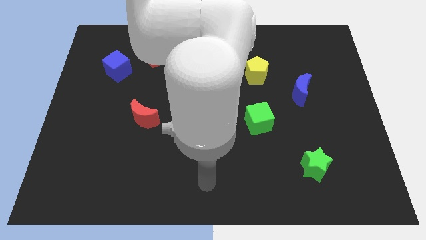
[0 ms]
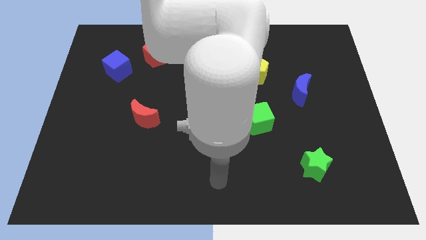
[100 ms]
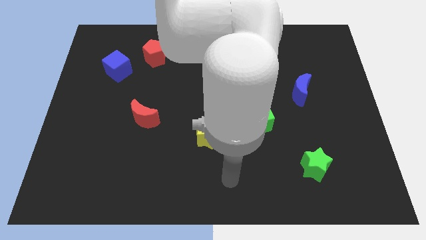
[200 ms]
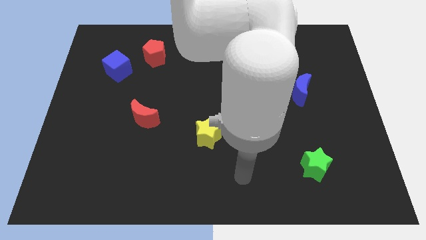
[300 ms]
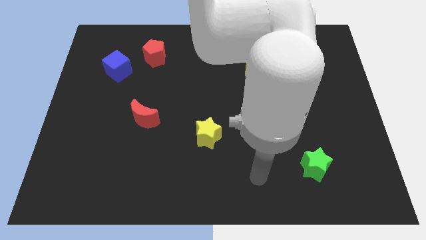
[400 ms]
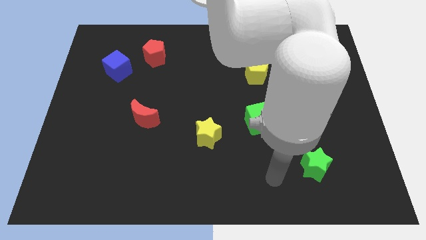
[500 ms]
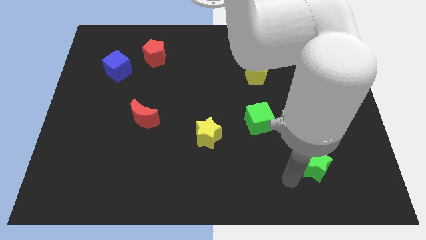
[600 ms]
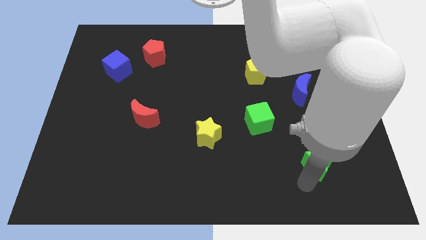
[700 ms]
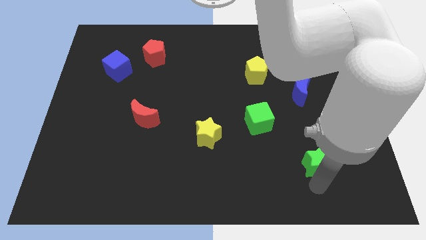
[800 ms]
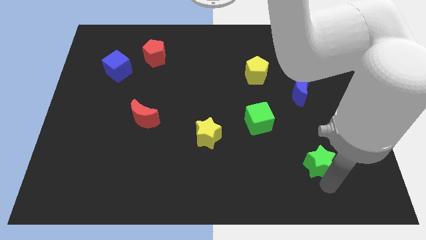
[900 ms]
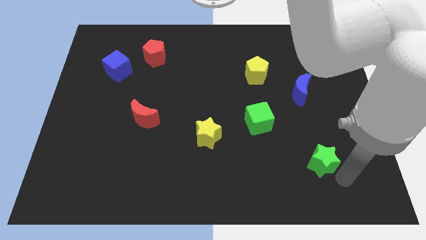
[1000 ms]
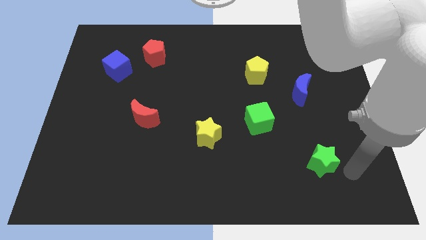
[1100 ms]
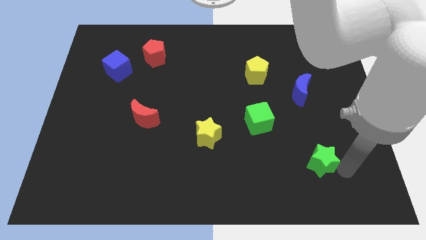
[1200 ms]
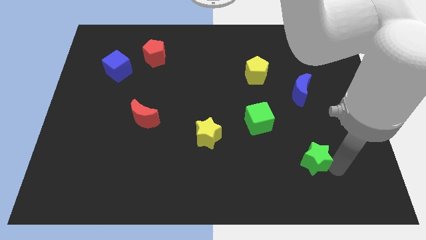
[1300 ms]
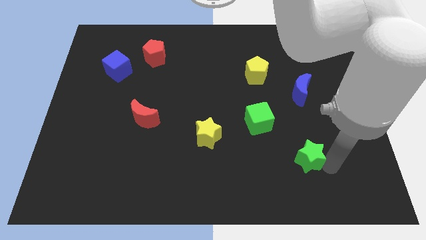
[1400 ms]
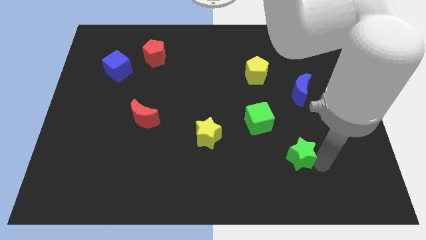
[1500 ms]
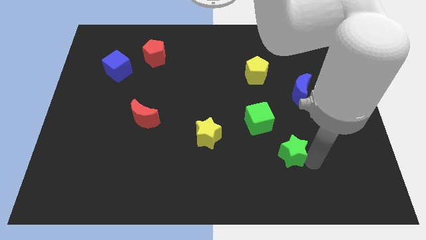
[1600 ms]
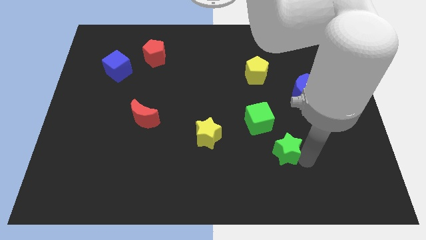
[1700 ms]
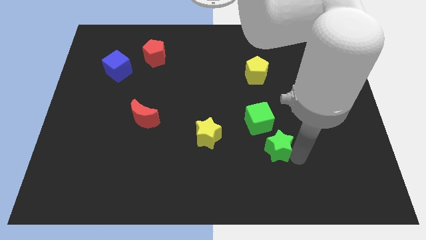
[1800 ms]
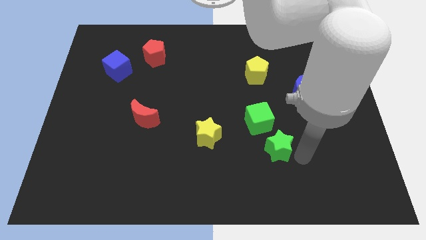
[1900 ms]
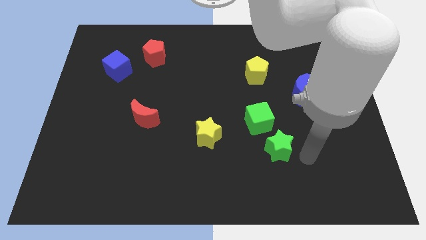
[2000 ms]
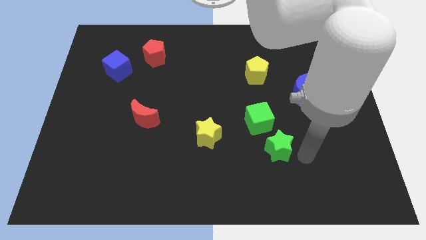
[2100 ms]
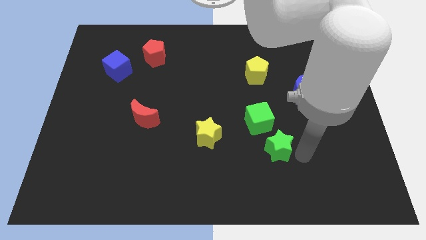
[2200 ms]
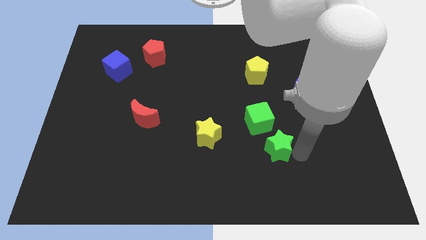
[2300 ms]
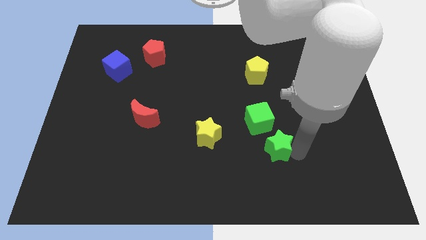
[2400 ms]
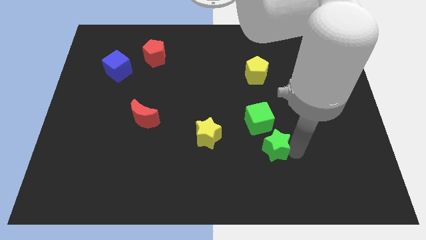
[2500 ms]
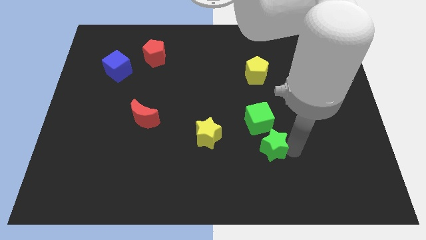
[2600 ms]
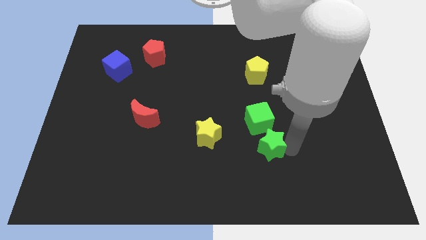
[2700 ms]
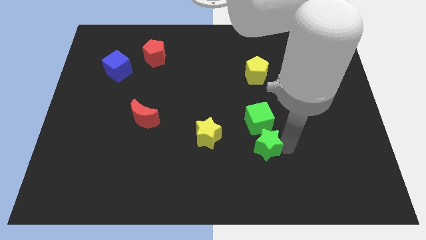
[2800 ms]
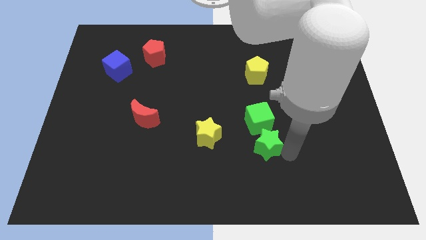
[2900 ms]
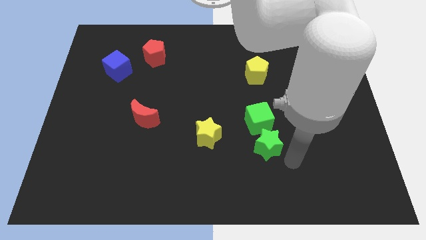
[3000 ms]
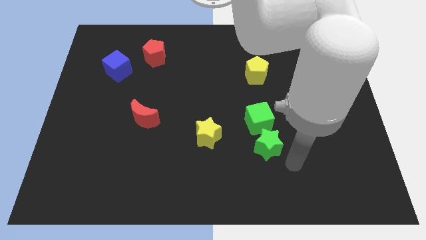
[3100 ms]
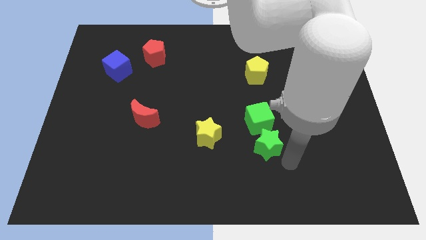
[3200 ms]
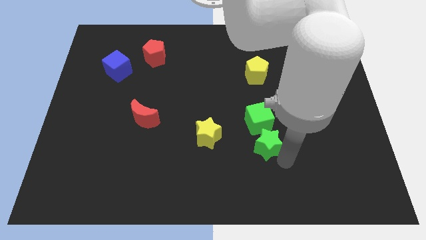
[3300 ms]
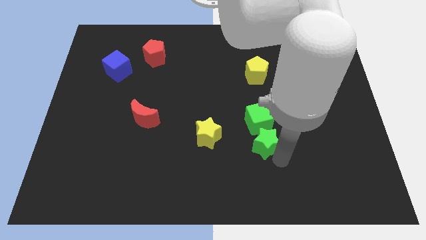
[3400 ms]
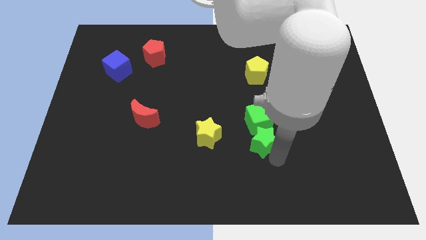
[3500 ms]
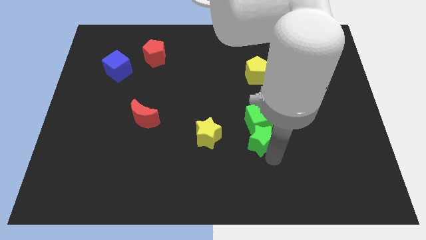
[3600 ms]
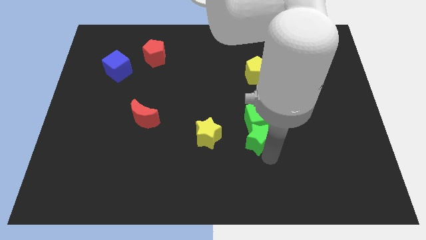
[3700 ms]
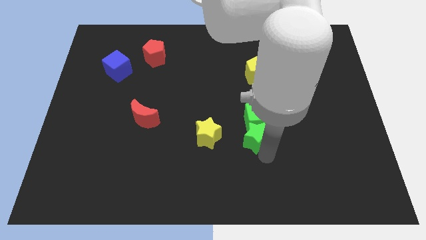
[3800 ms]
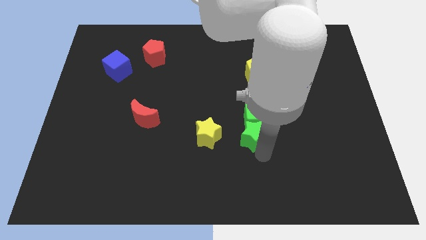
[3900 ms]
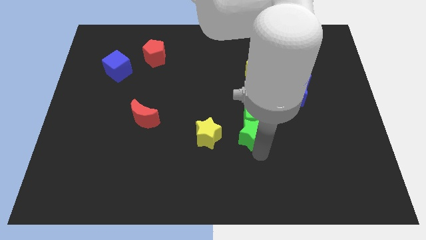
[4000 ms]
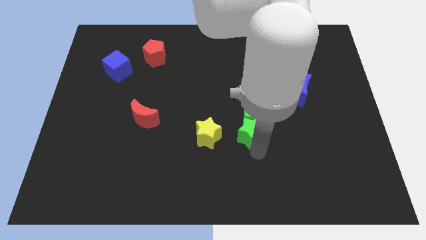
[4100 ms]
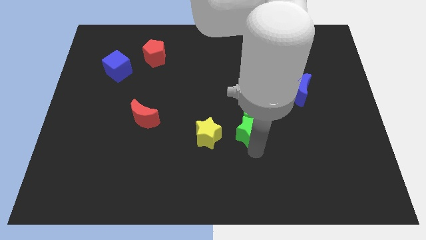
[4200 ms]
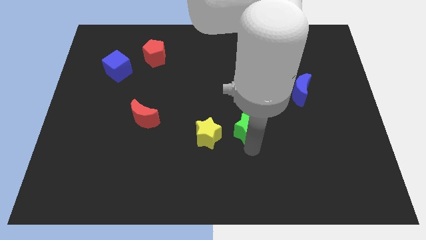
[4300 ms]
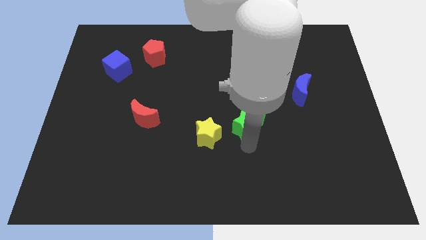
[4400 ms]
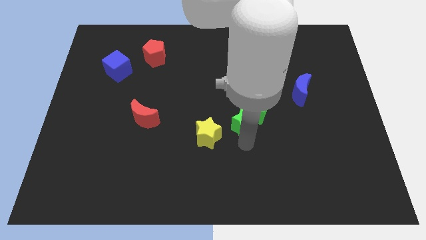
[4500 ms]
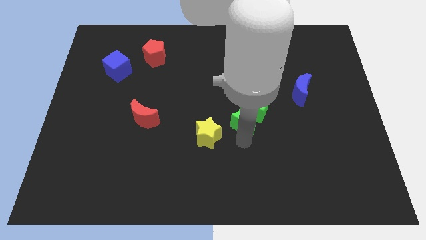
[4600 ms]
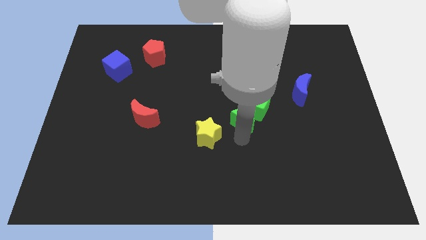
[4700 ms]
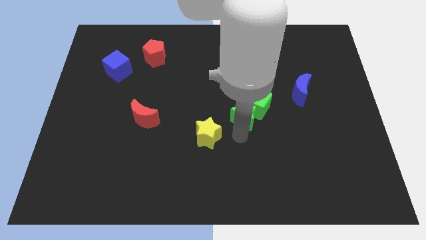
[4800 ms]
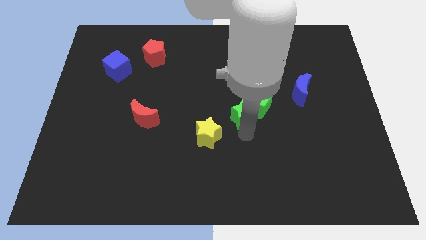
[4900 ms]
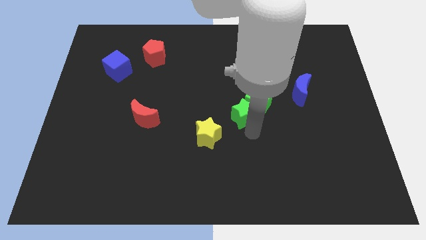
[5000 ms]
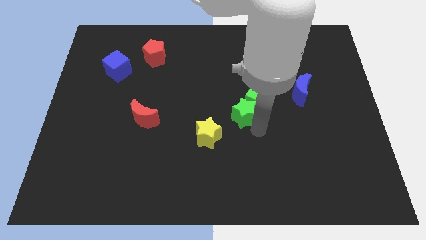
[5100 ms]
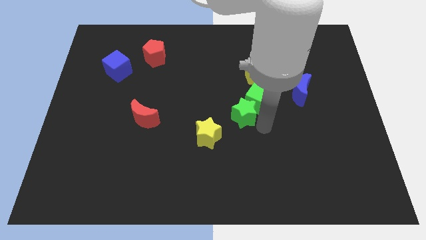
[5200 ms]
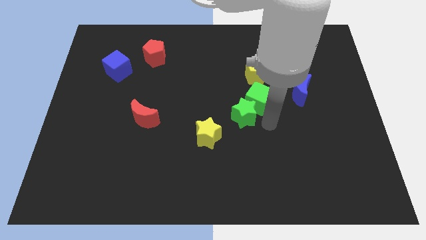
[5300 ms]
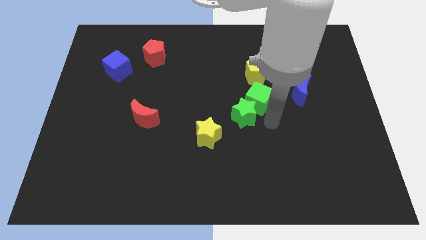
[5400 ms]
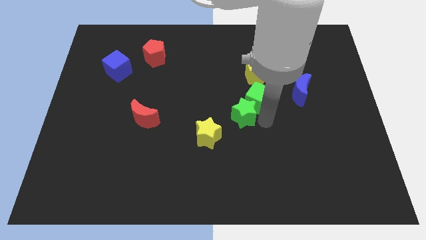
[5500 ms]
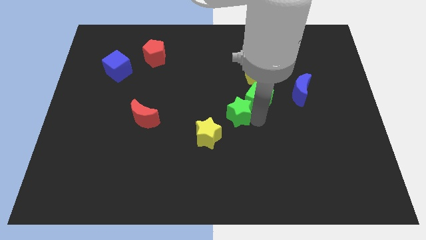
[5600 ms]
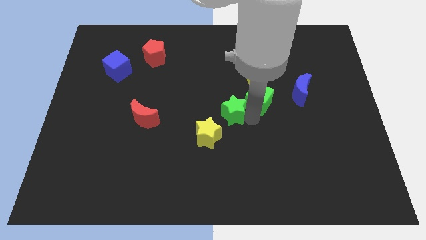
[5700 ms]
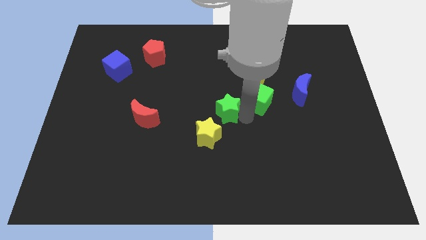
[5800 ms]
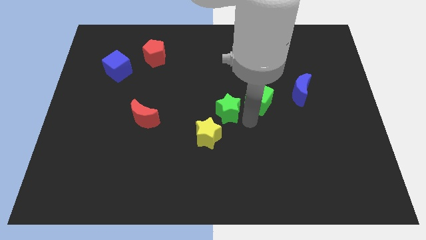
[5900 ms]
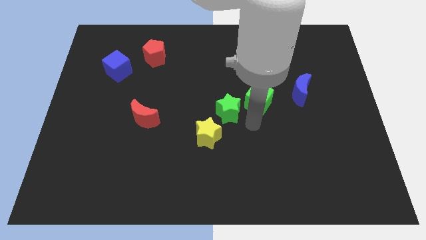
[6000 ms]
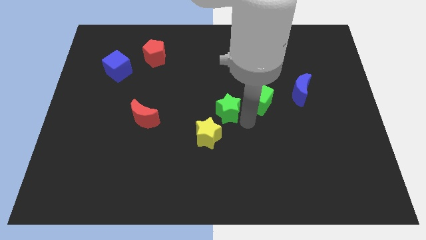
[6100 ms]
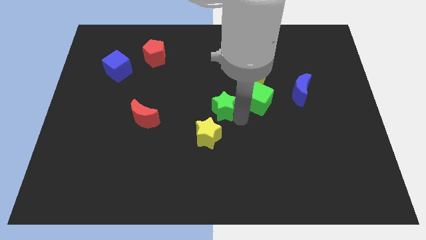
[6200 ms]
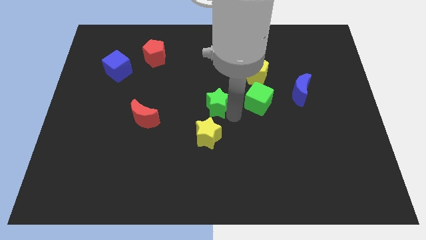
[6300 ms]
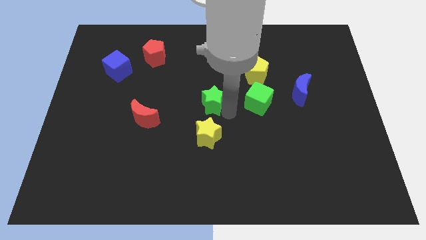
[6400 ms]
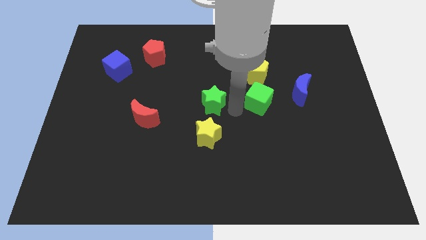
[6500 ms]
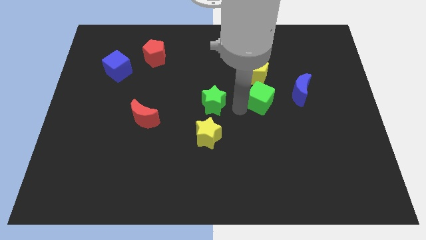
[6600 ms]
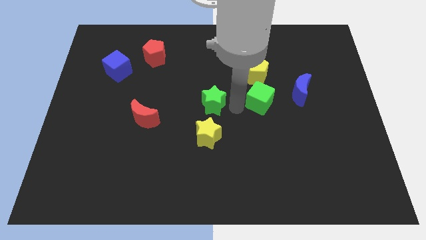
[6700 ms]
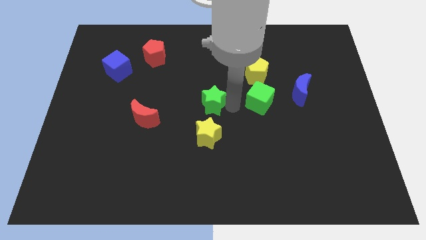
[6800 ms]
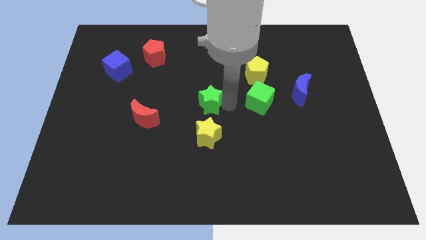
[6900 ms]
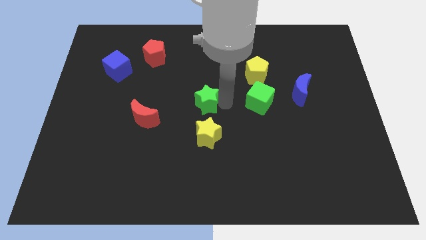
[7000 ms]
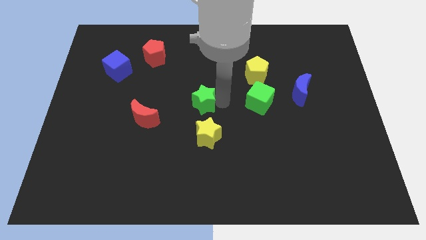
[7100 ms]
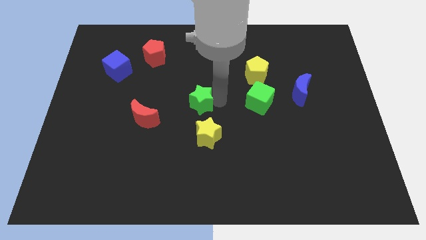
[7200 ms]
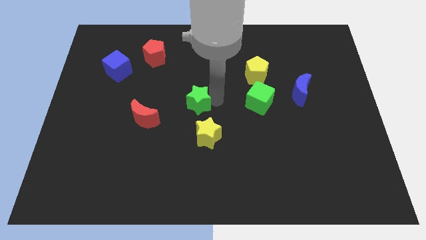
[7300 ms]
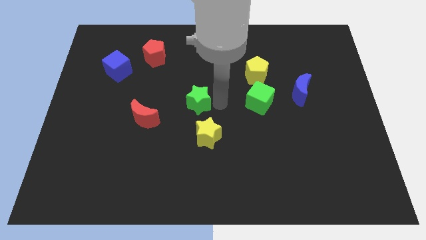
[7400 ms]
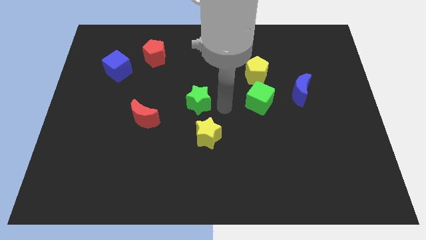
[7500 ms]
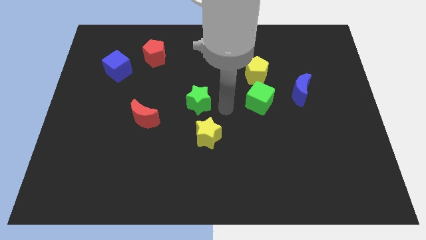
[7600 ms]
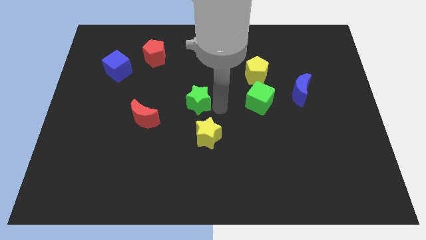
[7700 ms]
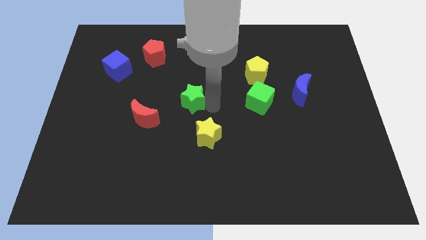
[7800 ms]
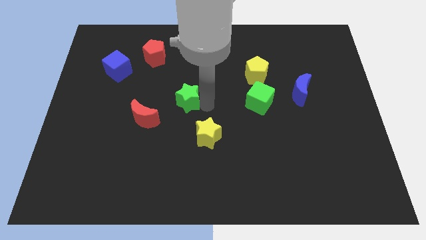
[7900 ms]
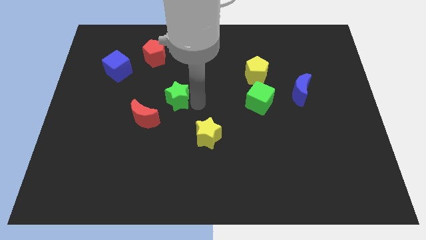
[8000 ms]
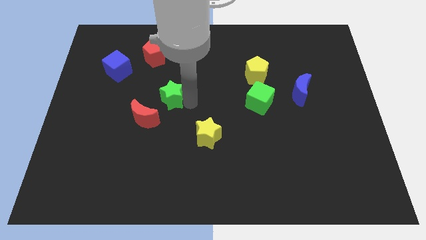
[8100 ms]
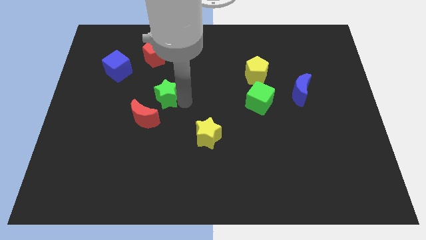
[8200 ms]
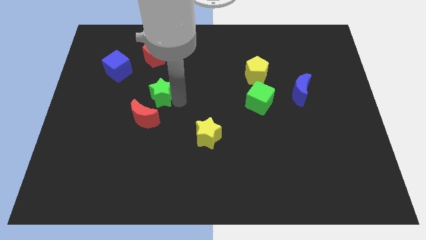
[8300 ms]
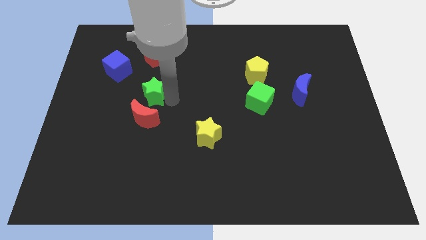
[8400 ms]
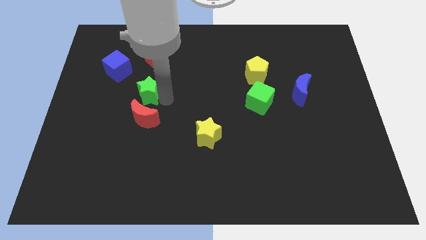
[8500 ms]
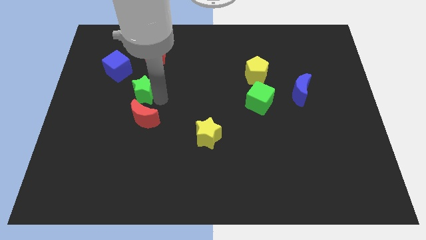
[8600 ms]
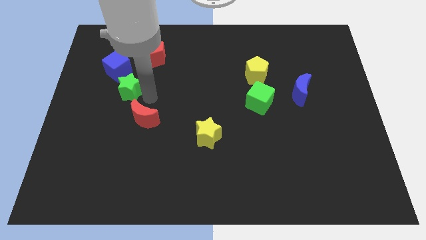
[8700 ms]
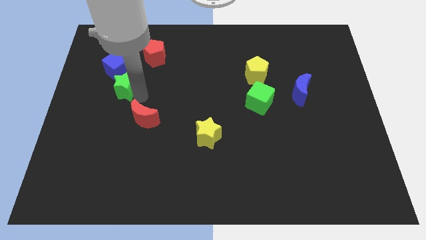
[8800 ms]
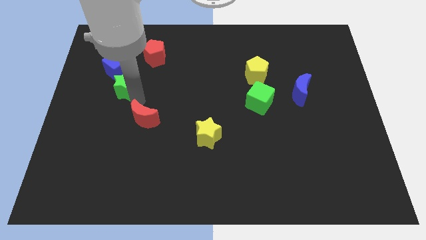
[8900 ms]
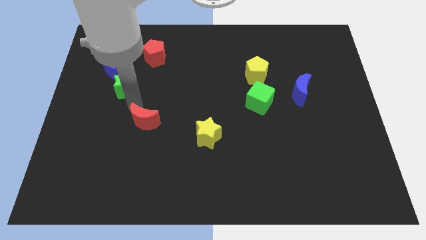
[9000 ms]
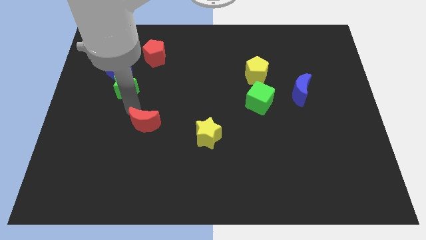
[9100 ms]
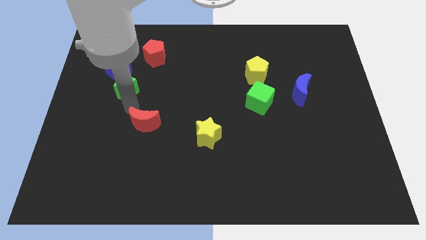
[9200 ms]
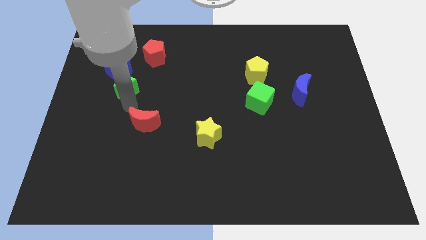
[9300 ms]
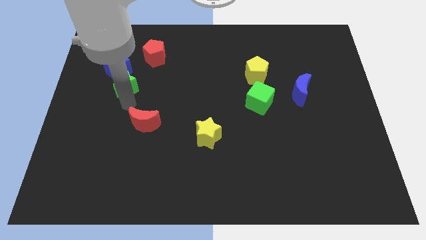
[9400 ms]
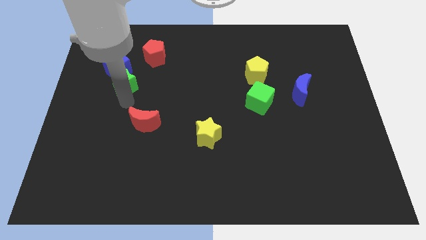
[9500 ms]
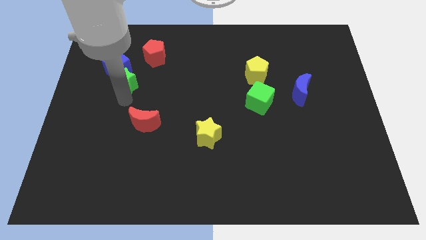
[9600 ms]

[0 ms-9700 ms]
put the green star to the blue cube
